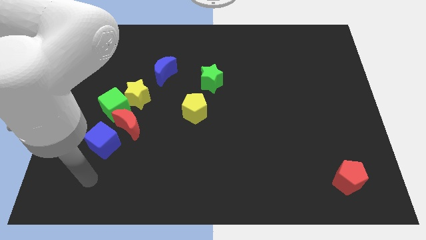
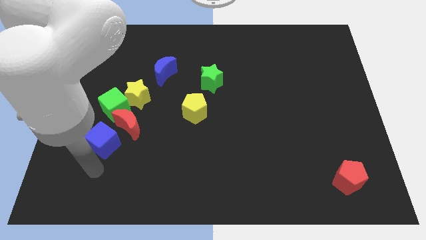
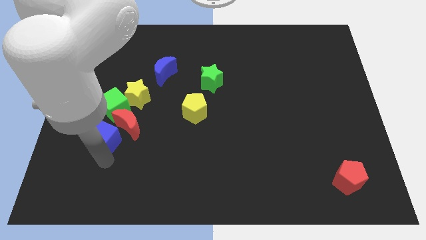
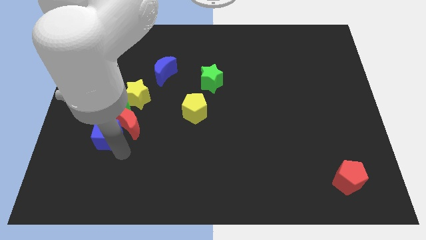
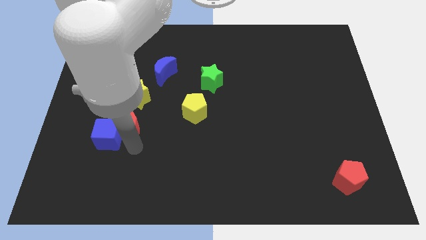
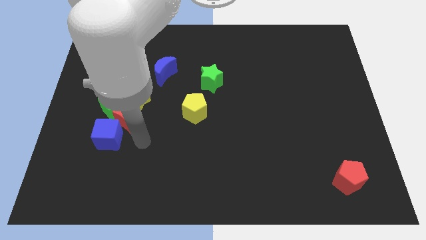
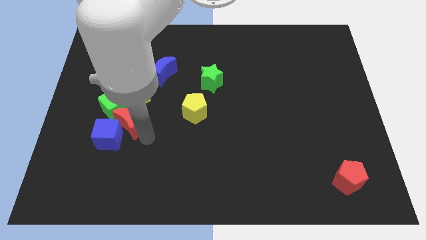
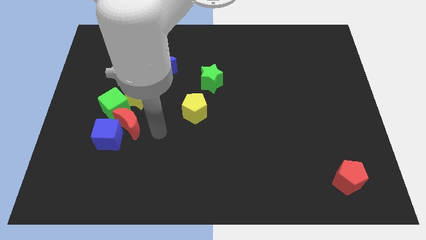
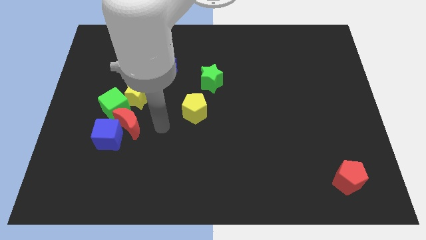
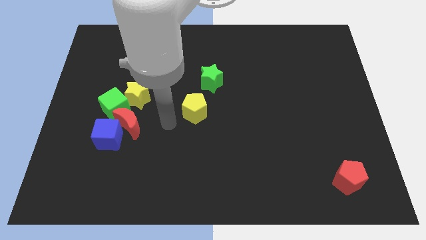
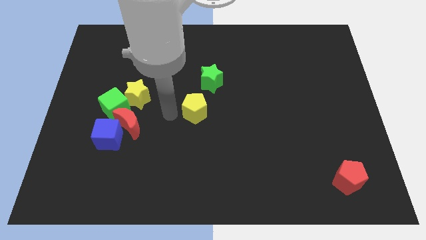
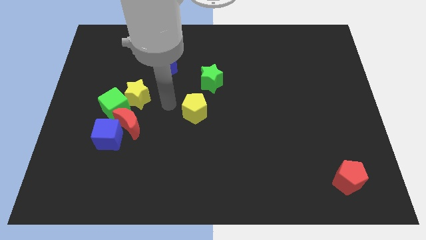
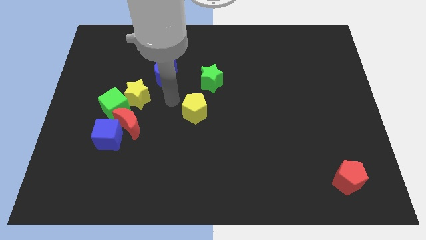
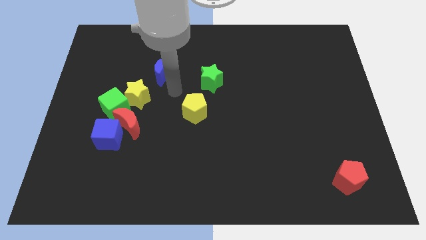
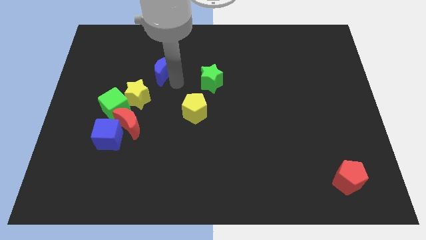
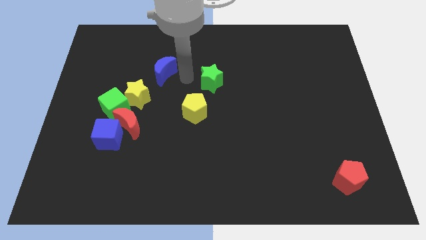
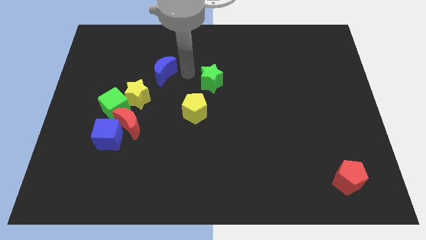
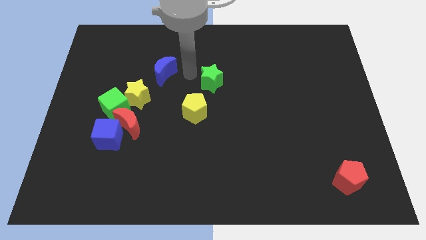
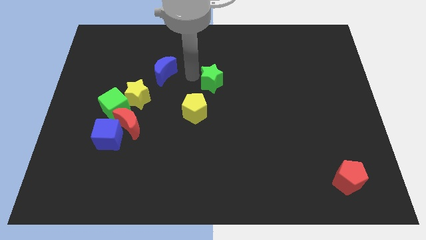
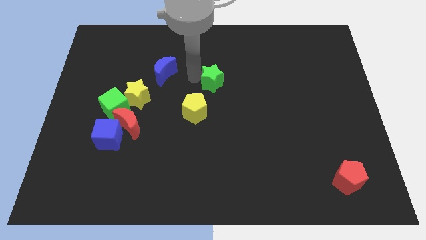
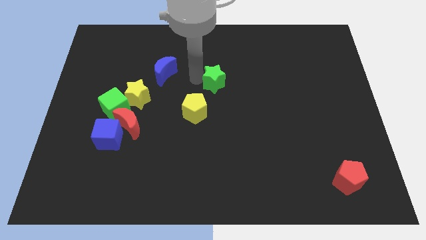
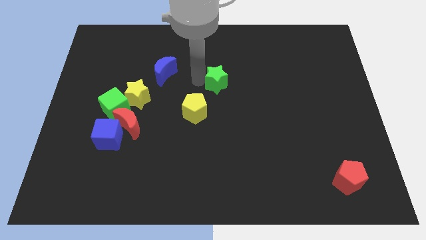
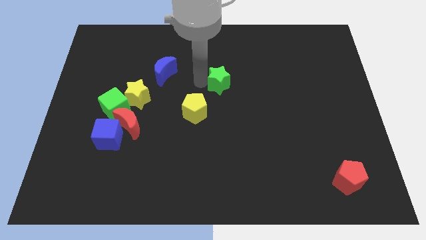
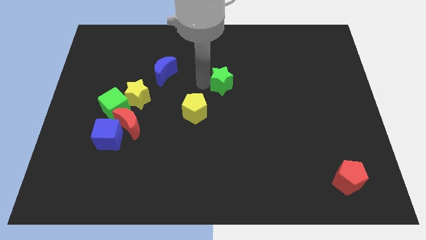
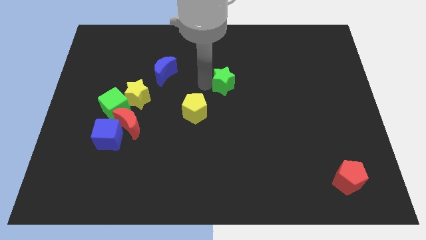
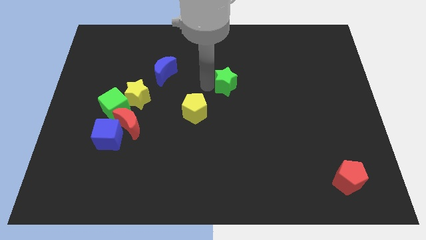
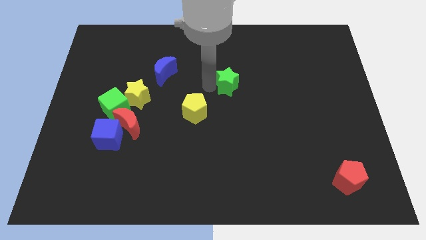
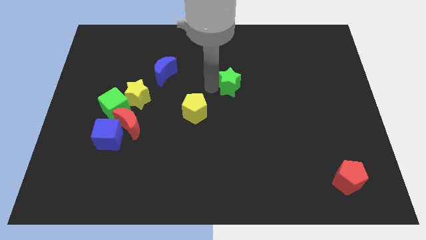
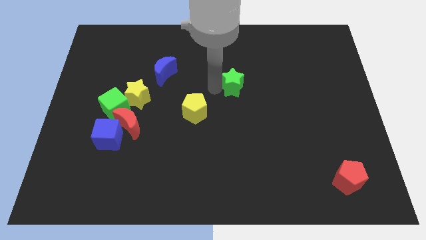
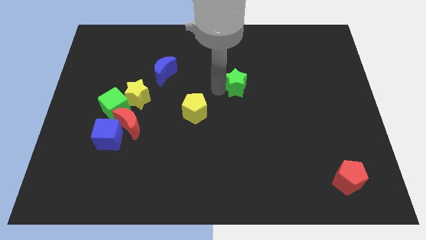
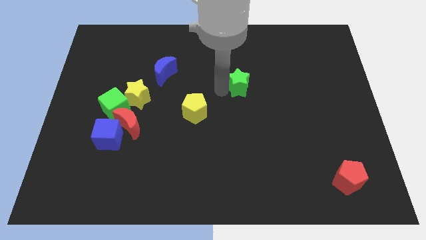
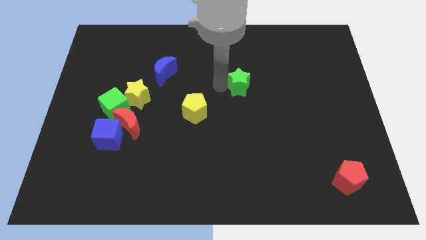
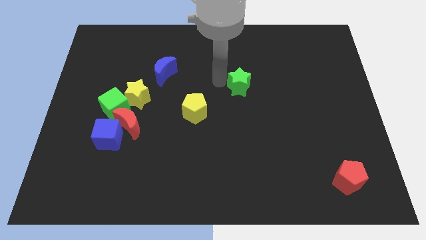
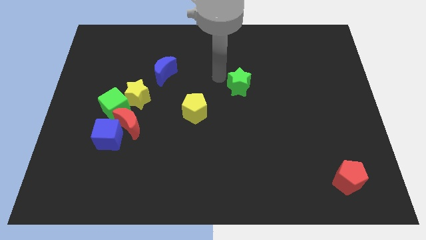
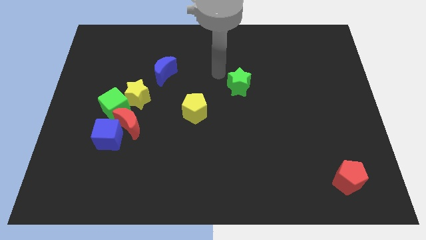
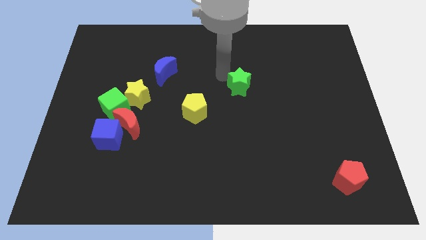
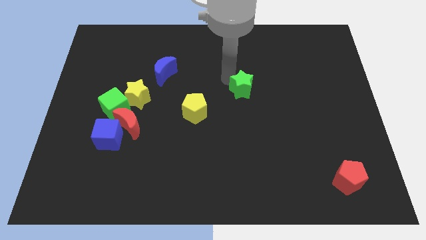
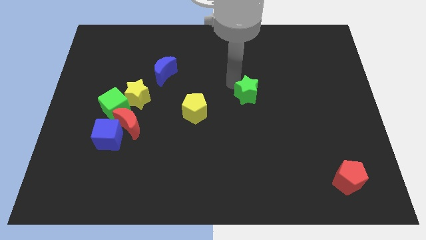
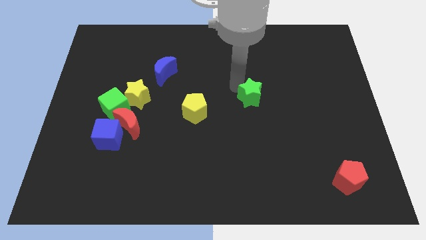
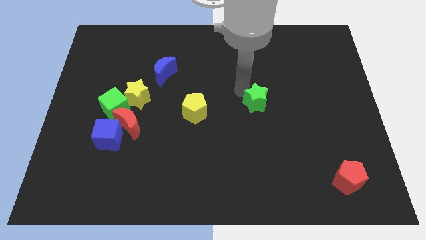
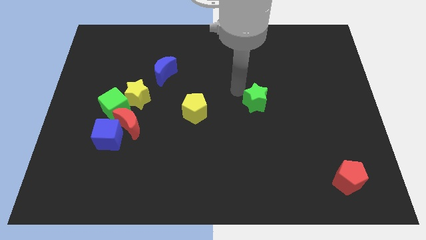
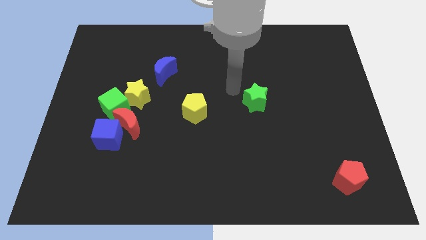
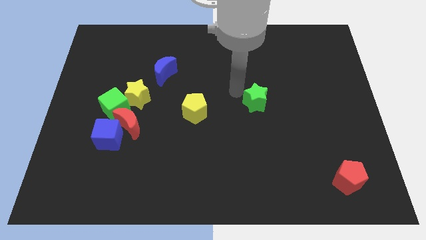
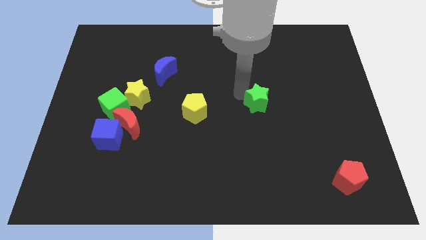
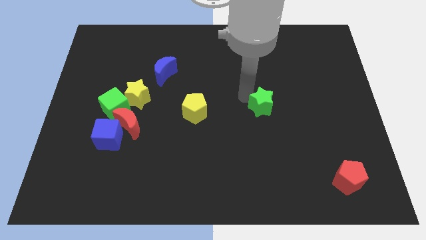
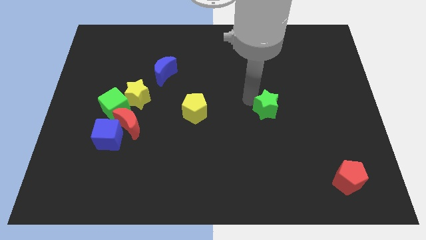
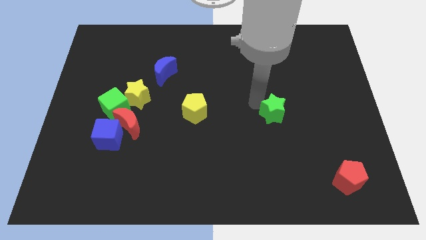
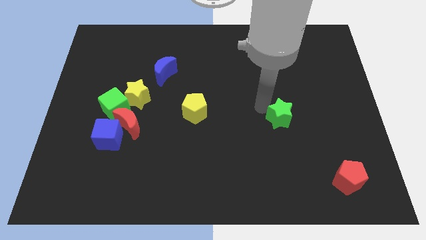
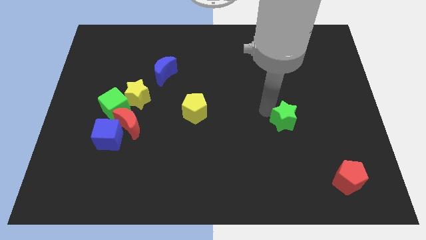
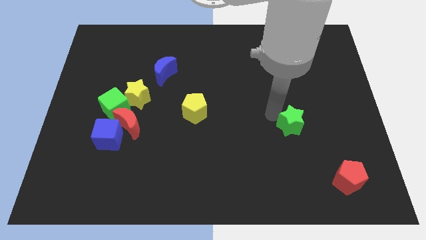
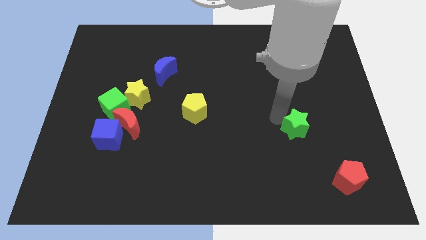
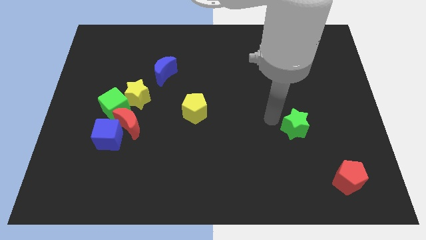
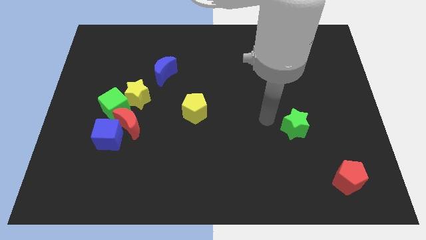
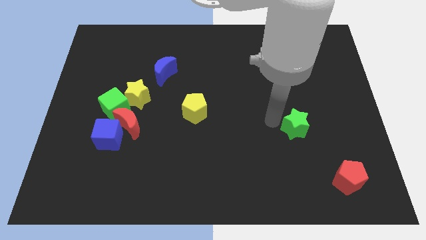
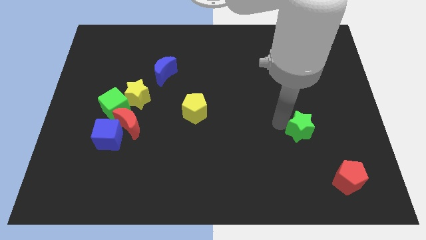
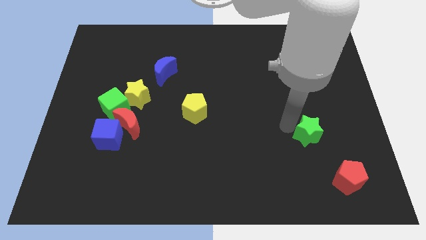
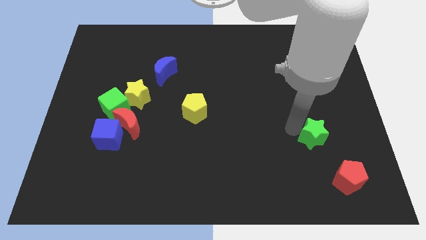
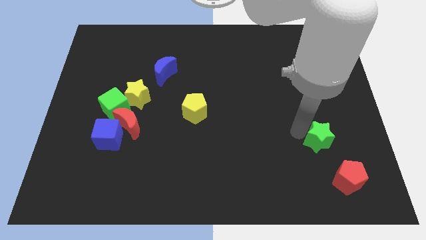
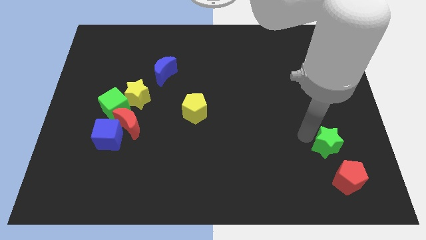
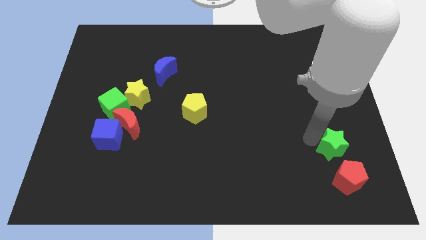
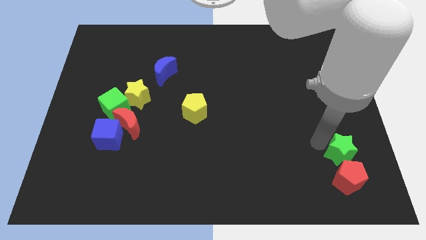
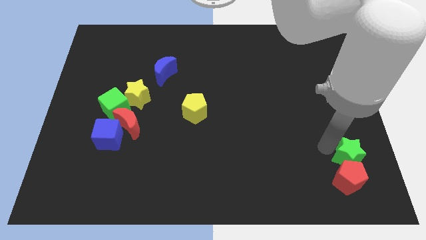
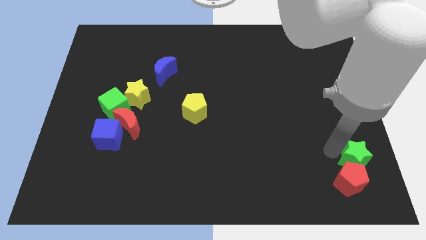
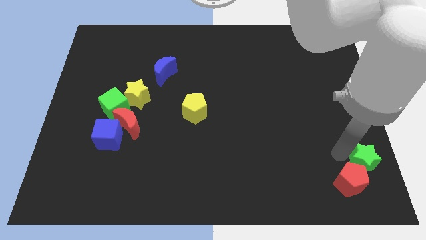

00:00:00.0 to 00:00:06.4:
move the green star to the bottom right of the board

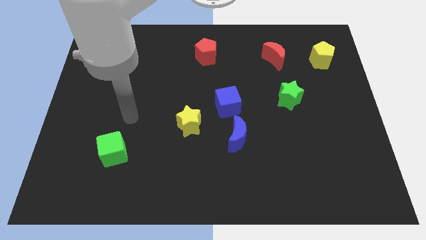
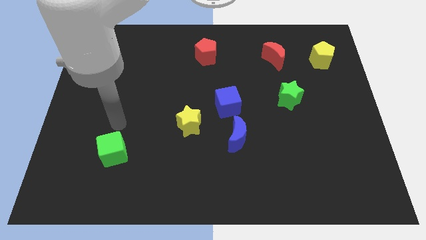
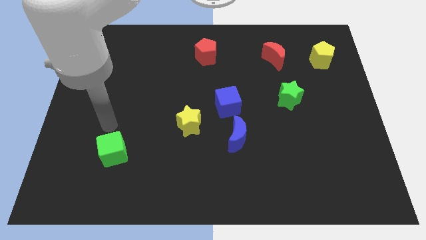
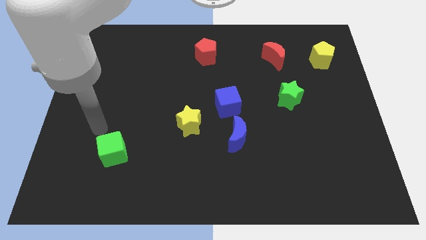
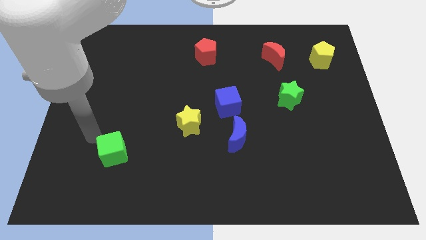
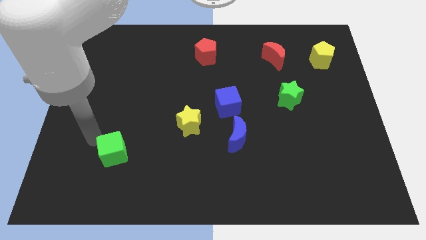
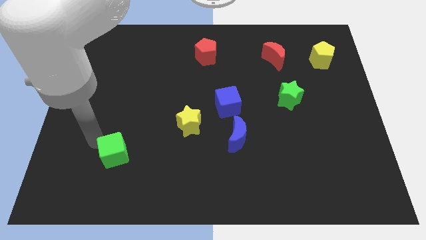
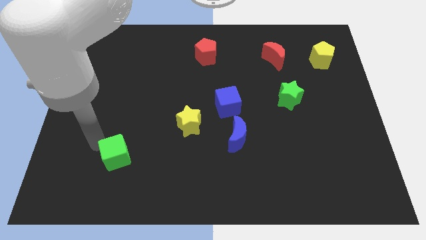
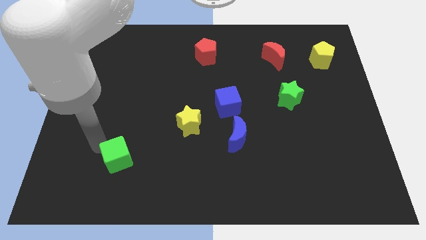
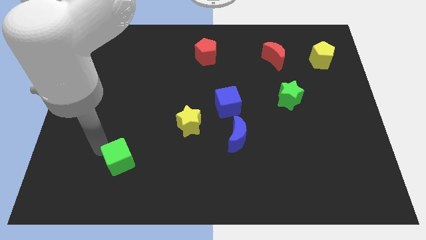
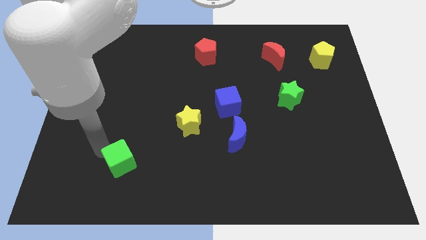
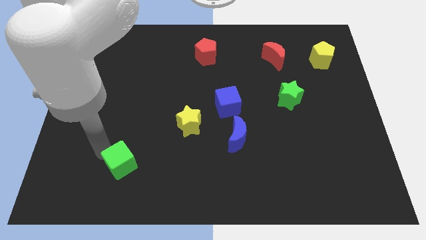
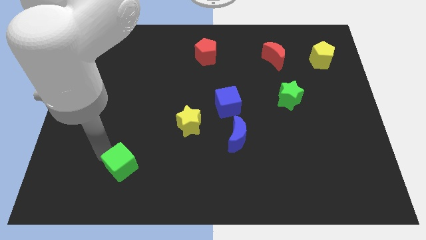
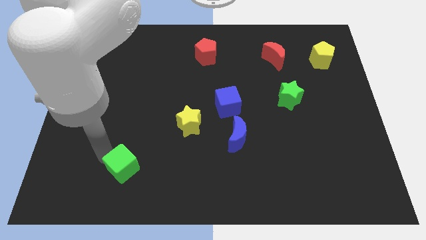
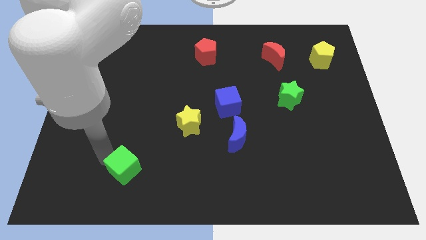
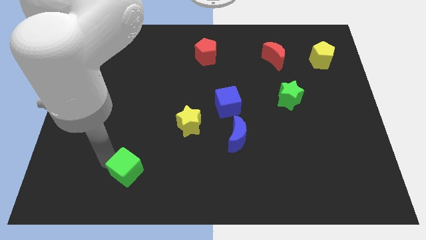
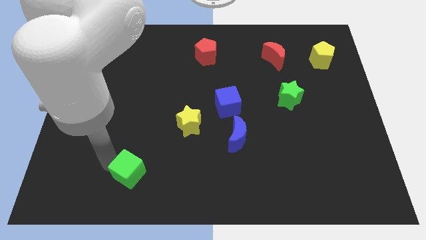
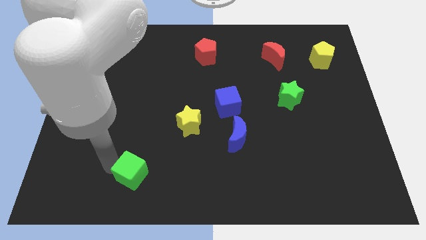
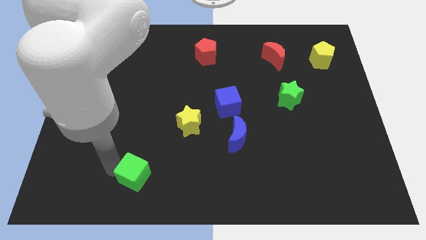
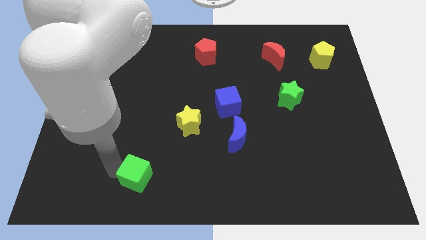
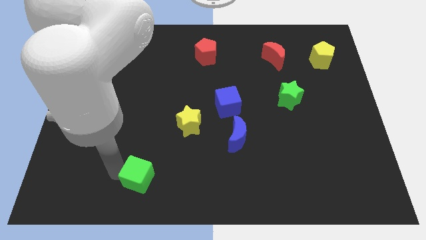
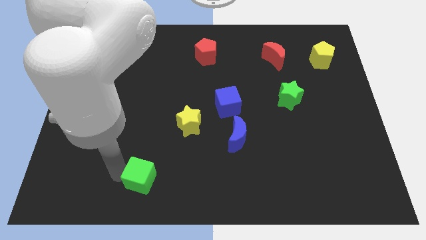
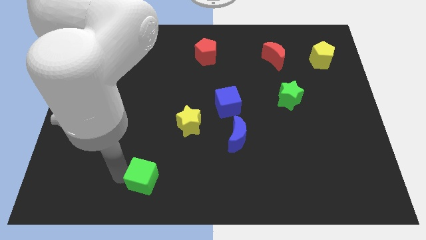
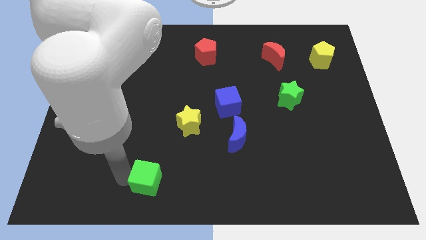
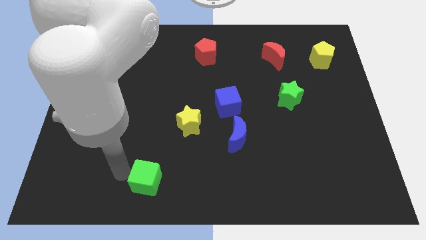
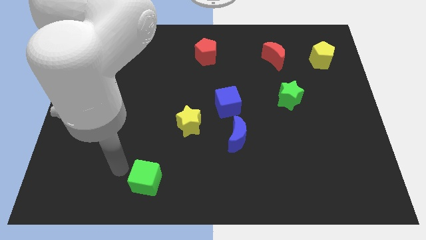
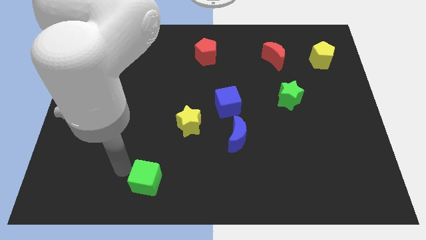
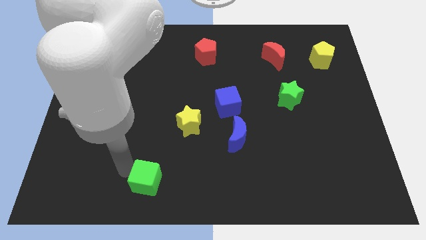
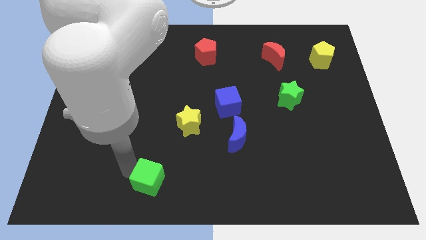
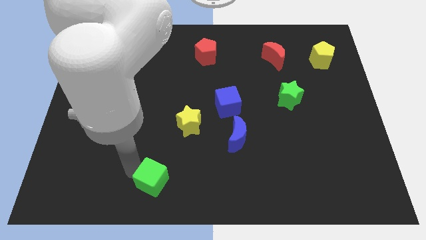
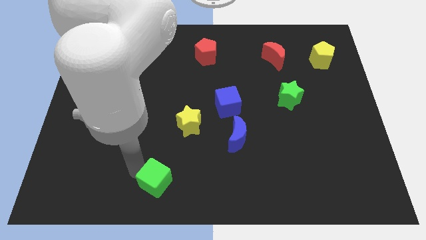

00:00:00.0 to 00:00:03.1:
slide the green cube to the bottom side
